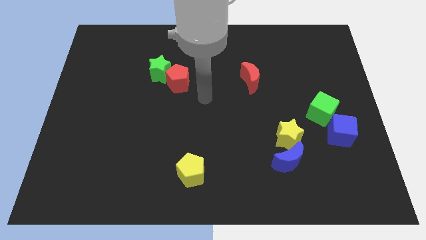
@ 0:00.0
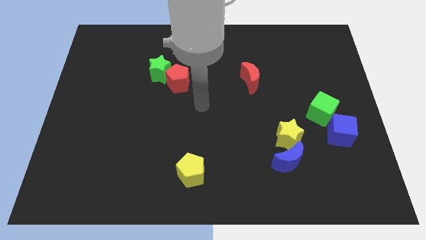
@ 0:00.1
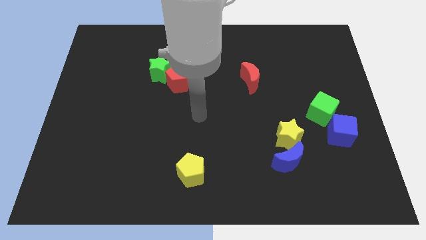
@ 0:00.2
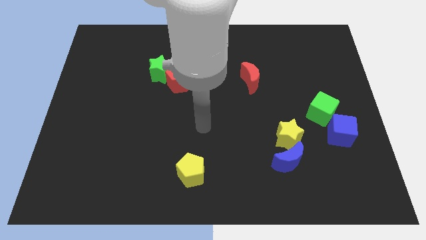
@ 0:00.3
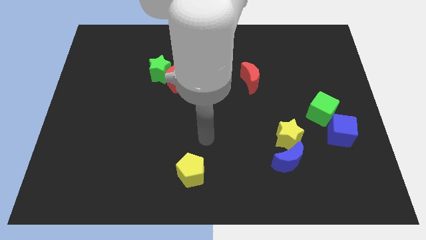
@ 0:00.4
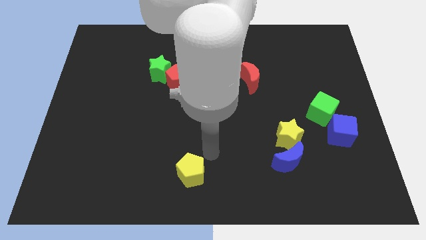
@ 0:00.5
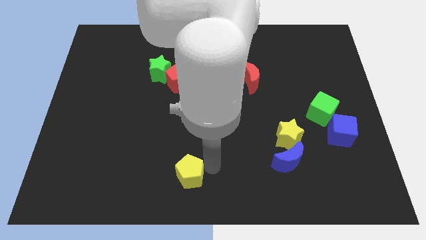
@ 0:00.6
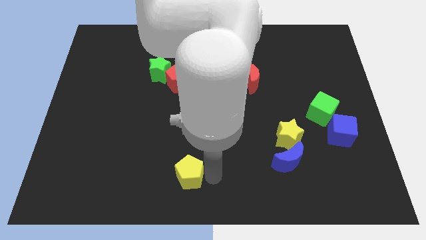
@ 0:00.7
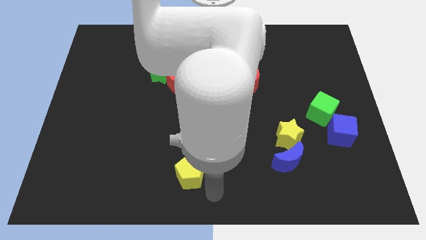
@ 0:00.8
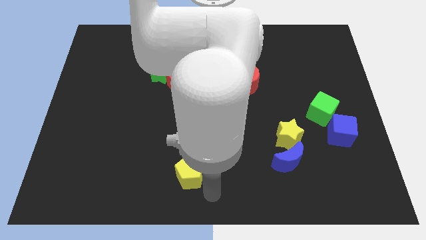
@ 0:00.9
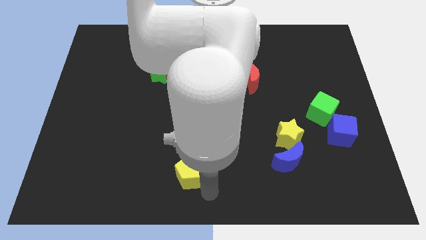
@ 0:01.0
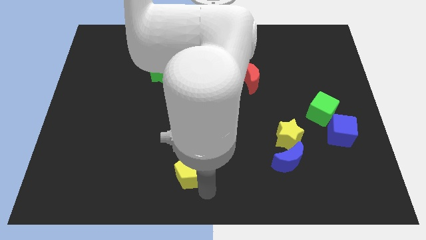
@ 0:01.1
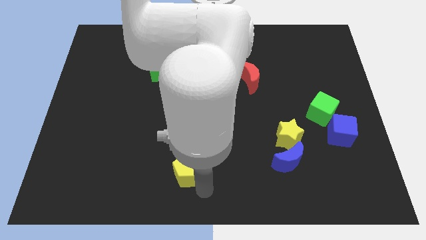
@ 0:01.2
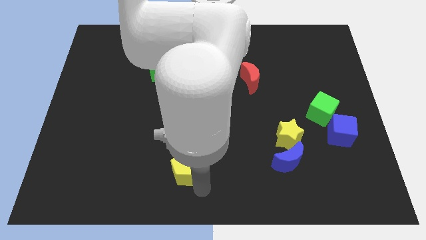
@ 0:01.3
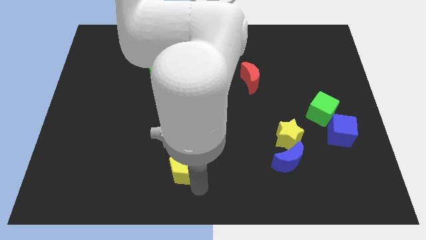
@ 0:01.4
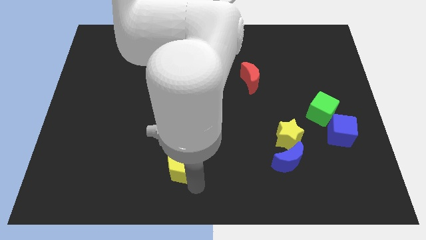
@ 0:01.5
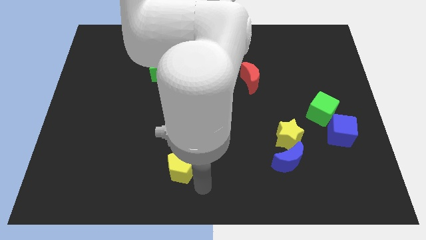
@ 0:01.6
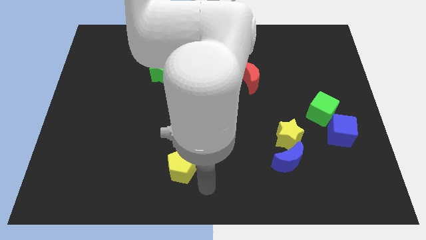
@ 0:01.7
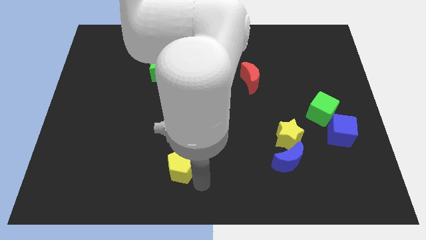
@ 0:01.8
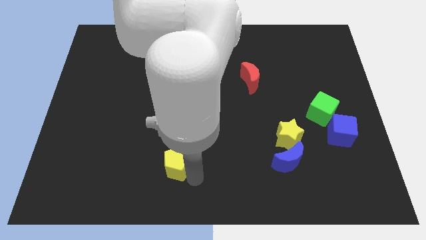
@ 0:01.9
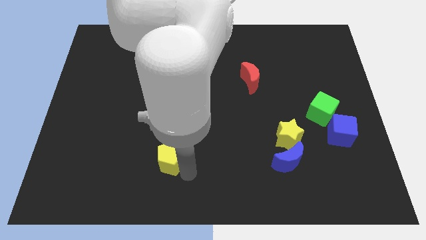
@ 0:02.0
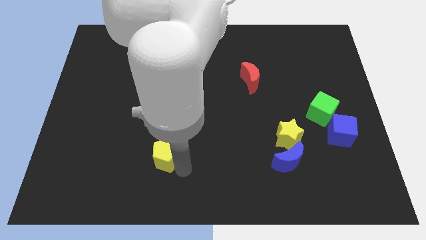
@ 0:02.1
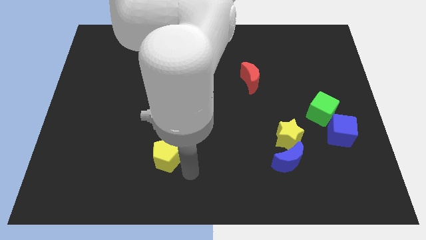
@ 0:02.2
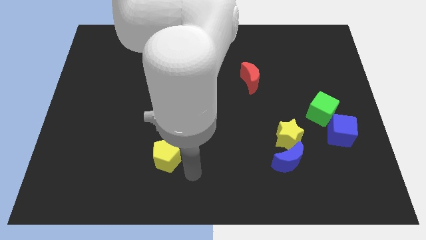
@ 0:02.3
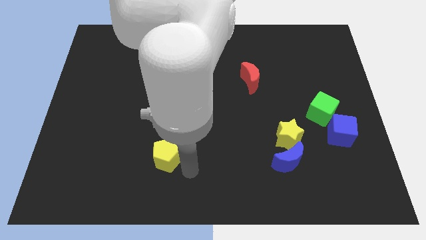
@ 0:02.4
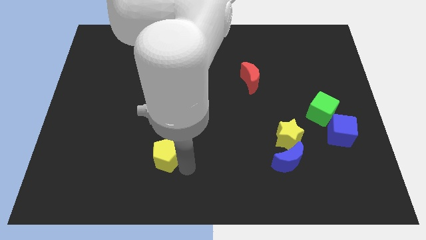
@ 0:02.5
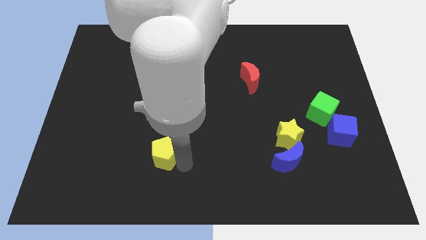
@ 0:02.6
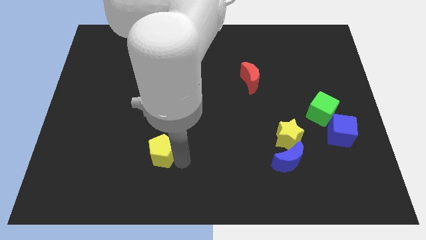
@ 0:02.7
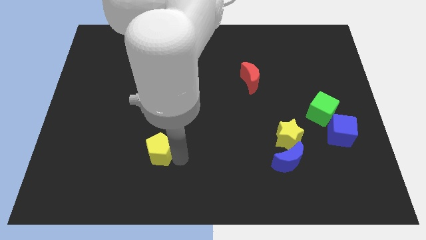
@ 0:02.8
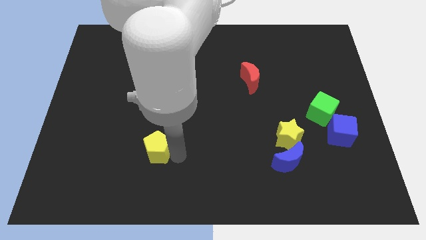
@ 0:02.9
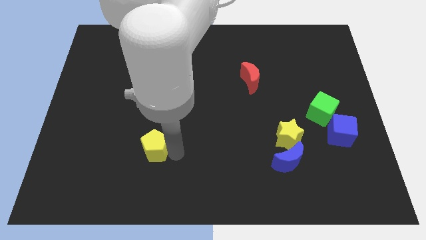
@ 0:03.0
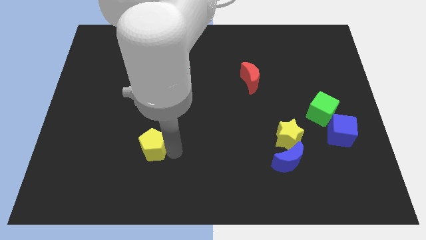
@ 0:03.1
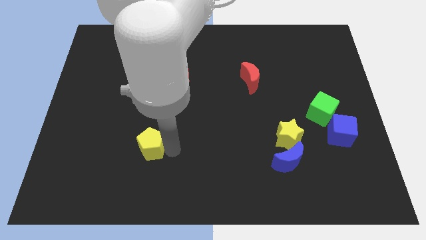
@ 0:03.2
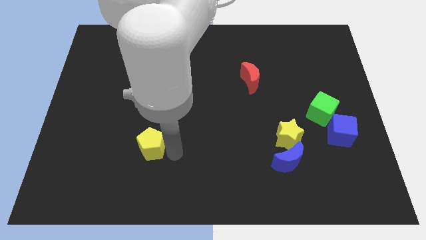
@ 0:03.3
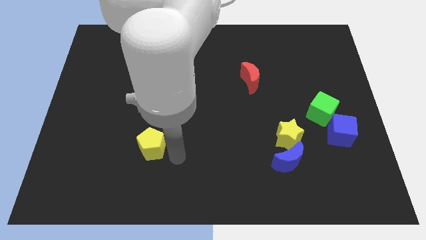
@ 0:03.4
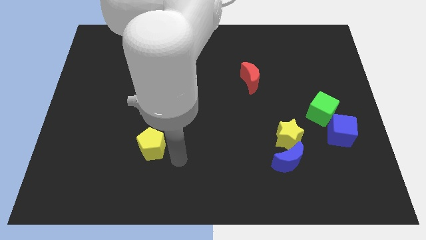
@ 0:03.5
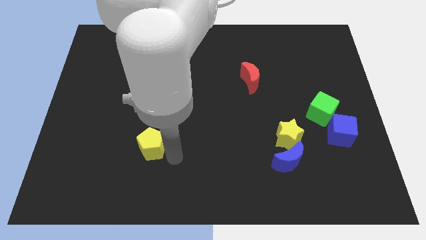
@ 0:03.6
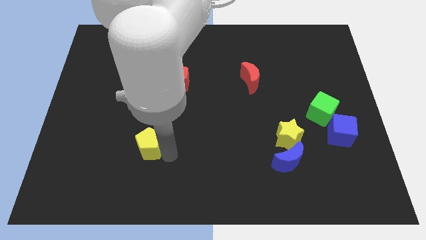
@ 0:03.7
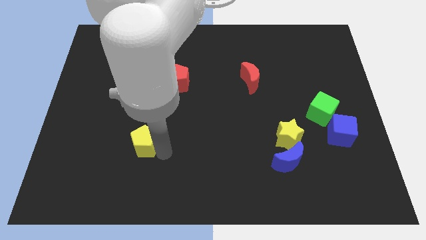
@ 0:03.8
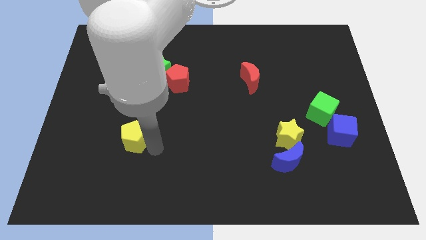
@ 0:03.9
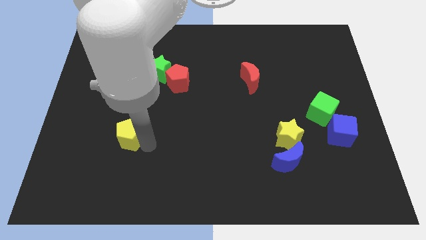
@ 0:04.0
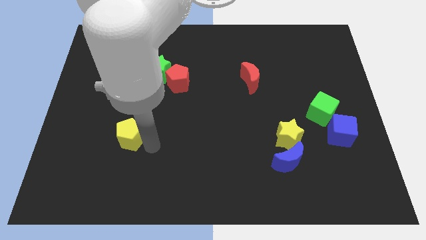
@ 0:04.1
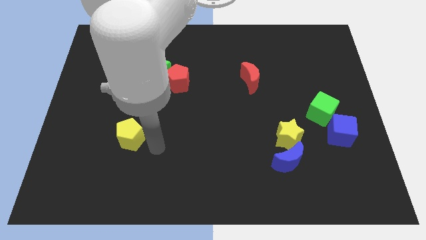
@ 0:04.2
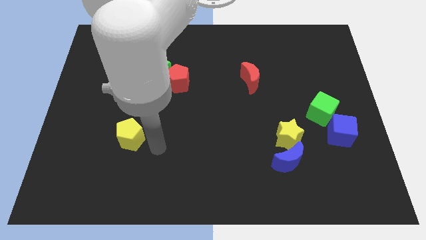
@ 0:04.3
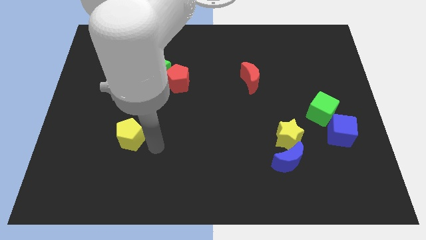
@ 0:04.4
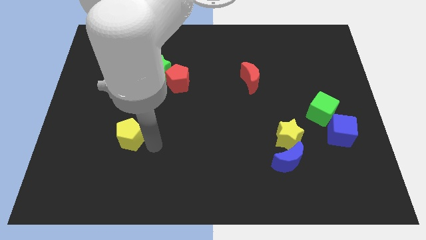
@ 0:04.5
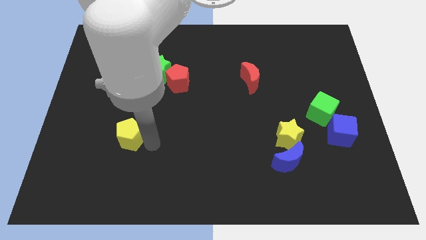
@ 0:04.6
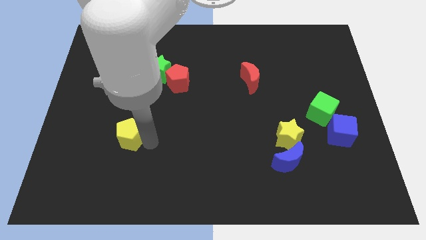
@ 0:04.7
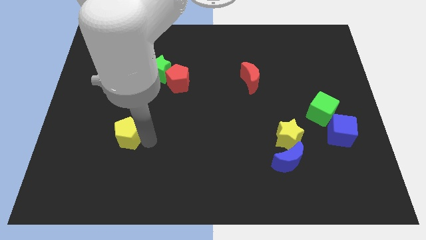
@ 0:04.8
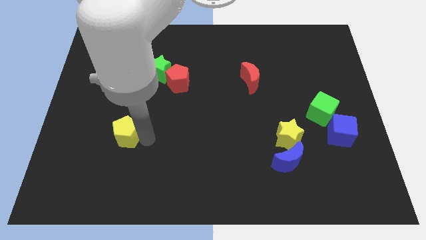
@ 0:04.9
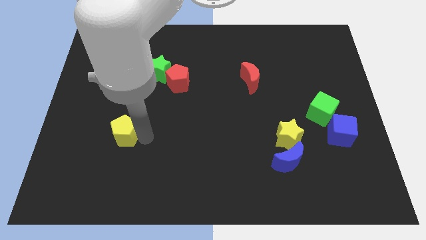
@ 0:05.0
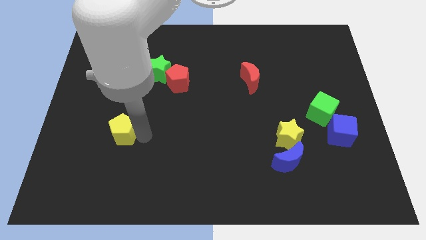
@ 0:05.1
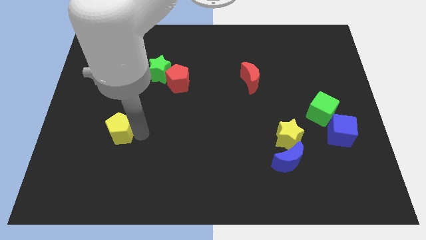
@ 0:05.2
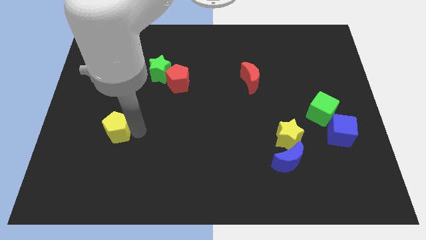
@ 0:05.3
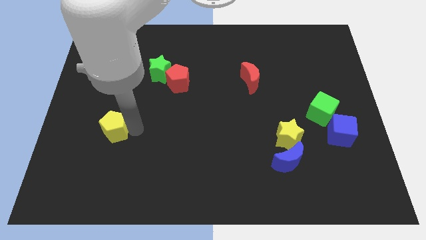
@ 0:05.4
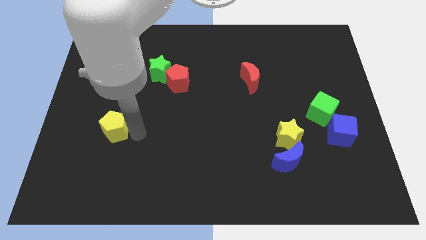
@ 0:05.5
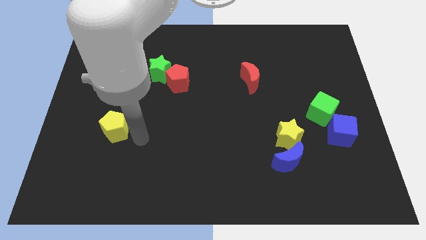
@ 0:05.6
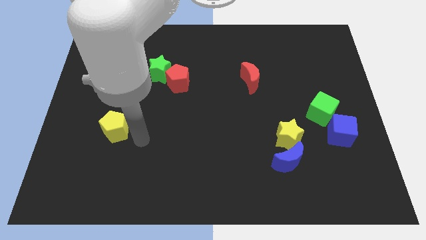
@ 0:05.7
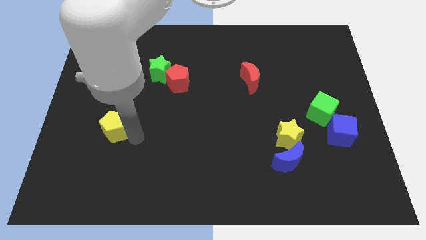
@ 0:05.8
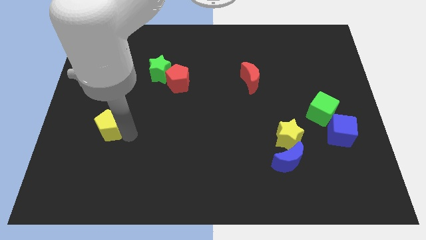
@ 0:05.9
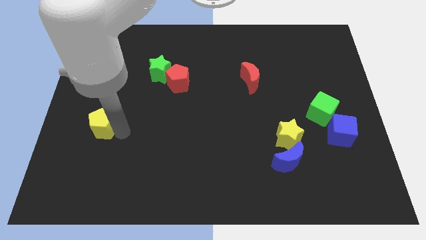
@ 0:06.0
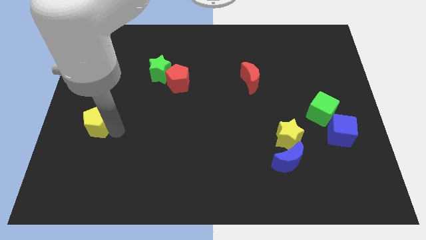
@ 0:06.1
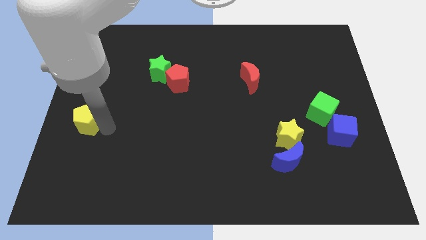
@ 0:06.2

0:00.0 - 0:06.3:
move the yellow pentagon to the center left

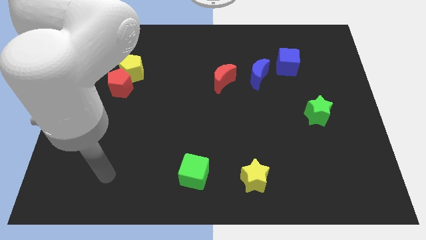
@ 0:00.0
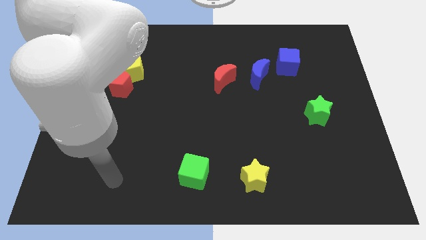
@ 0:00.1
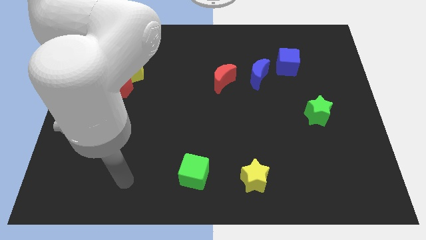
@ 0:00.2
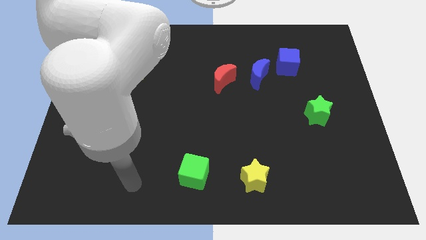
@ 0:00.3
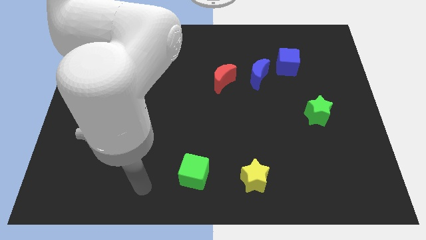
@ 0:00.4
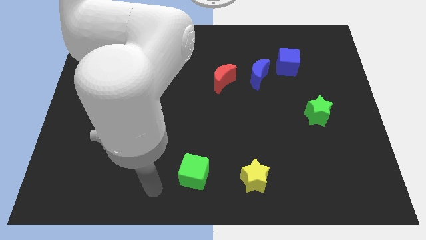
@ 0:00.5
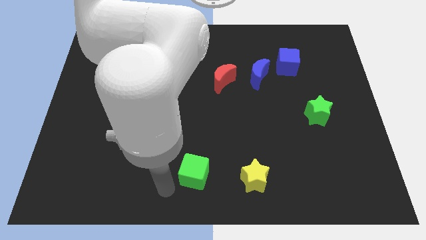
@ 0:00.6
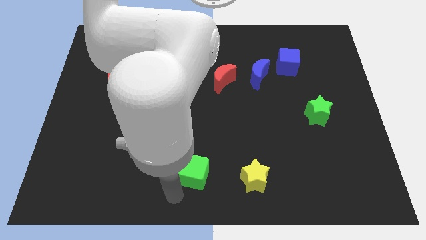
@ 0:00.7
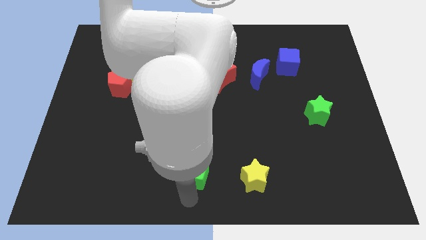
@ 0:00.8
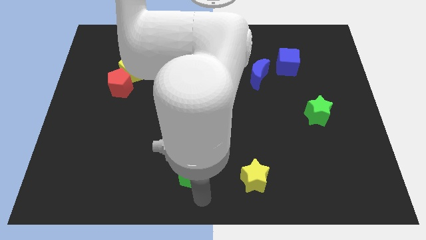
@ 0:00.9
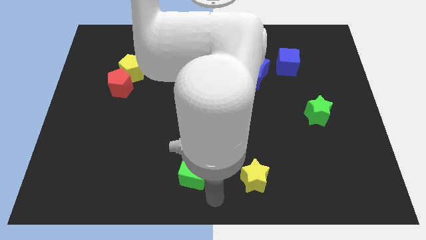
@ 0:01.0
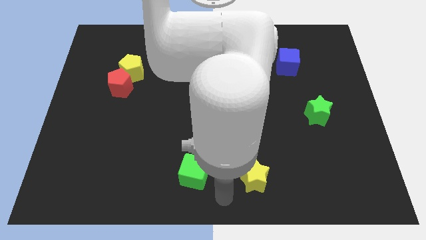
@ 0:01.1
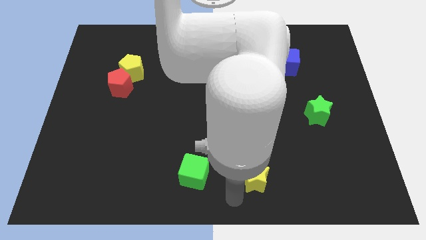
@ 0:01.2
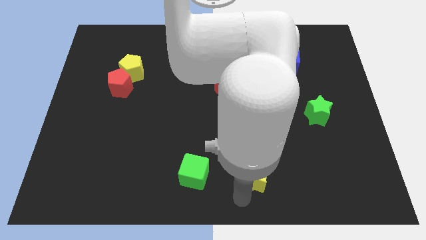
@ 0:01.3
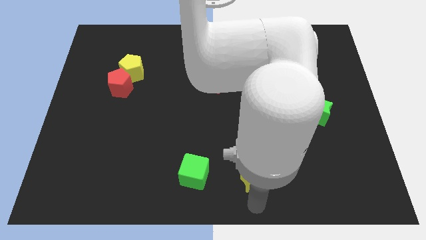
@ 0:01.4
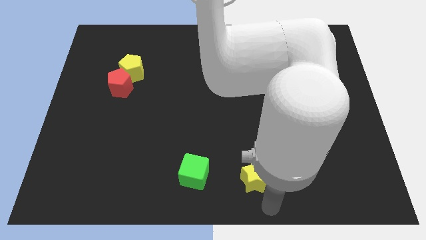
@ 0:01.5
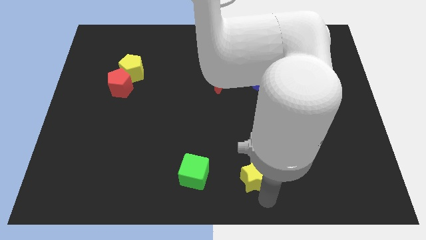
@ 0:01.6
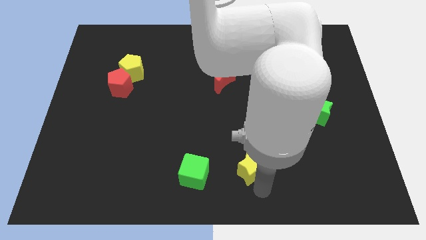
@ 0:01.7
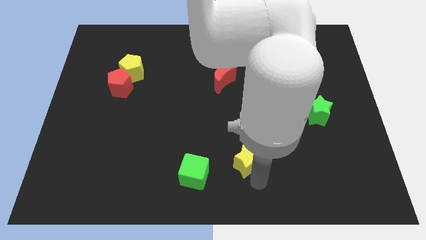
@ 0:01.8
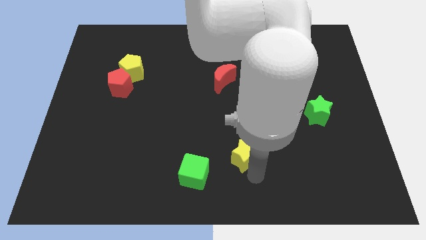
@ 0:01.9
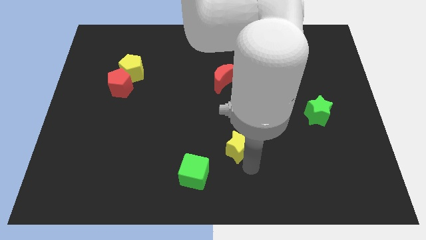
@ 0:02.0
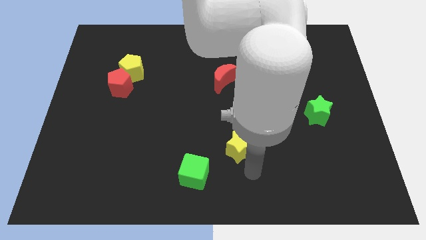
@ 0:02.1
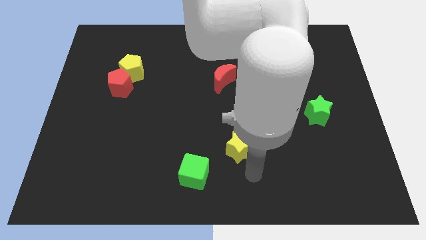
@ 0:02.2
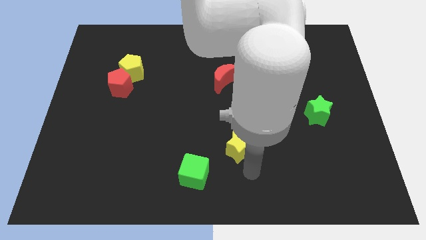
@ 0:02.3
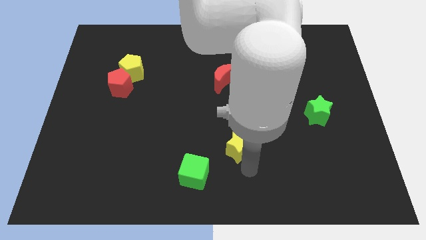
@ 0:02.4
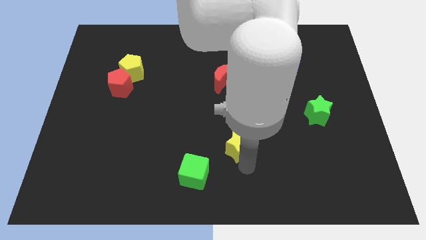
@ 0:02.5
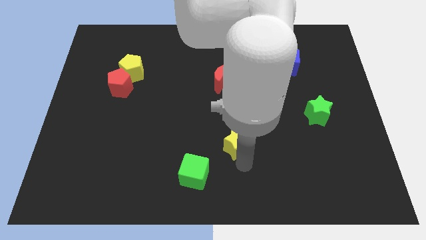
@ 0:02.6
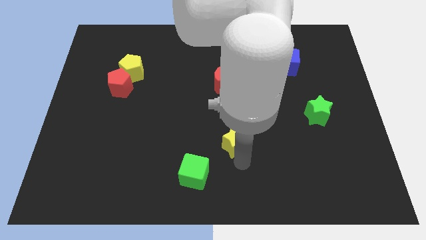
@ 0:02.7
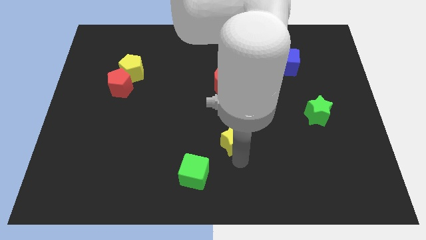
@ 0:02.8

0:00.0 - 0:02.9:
move the yellow star to the middle of the board
